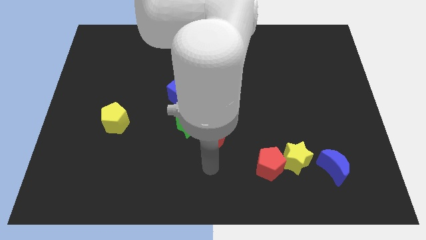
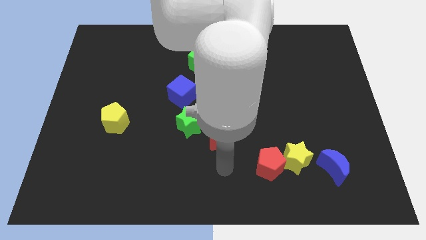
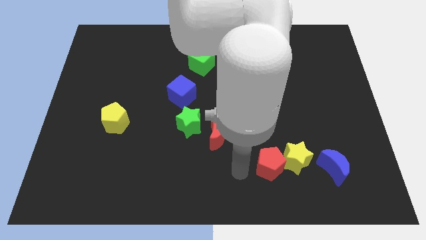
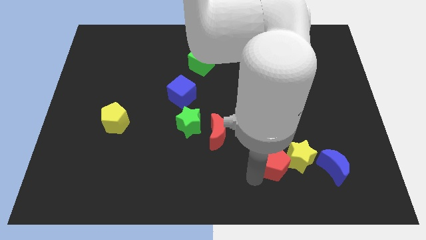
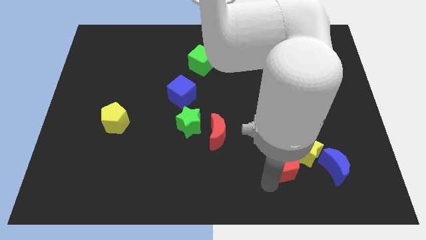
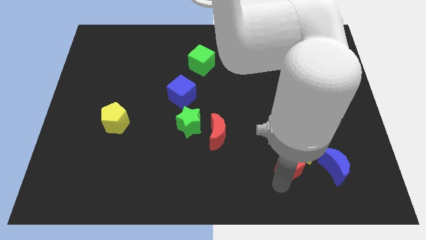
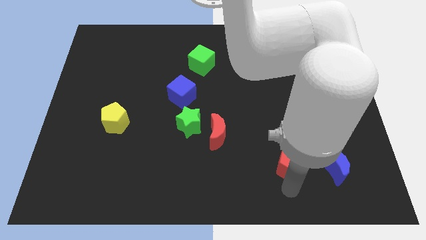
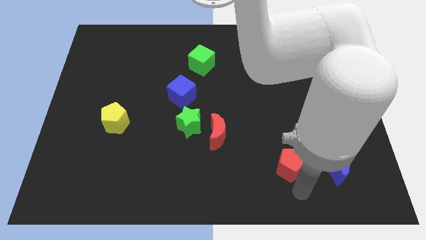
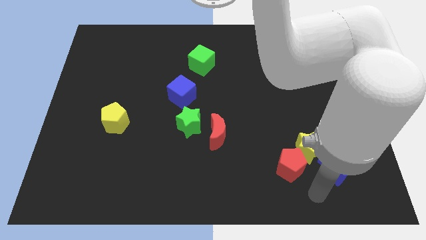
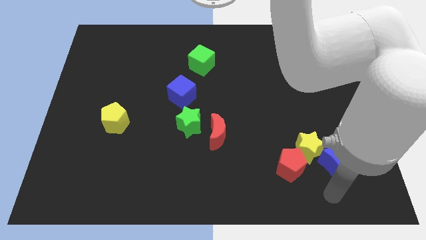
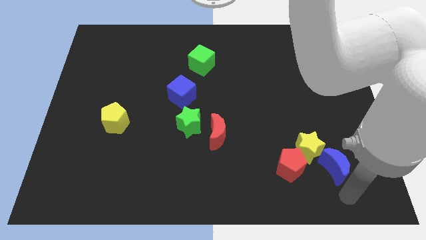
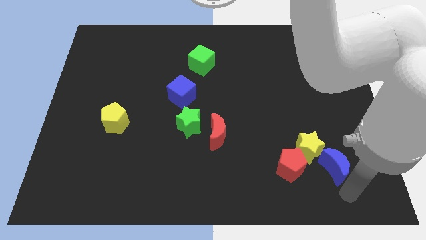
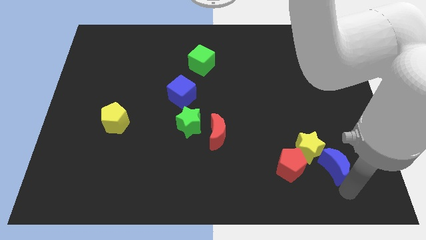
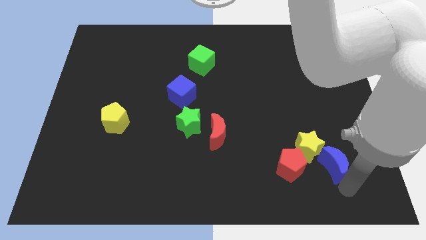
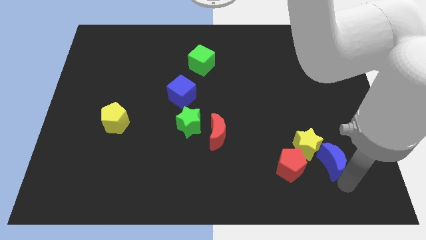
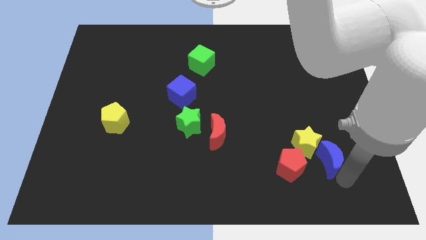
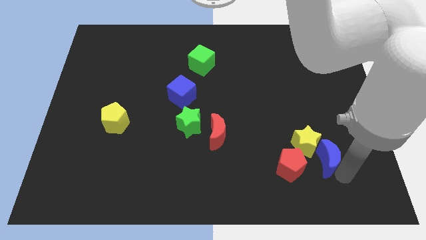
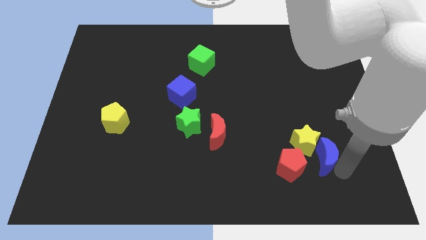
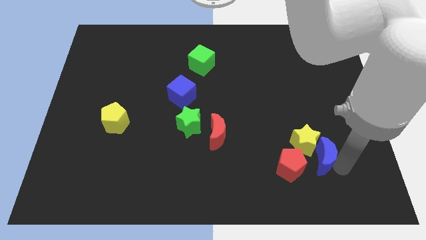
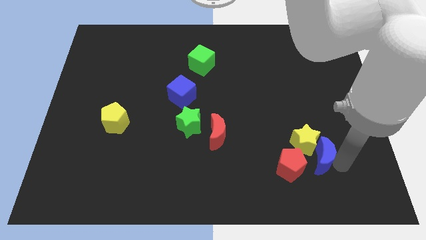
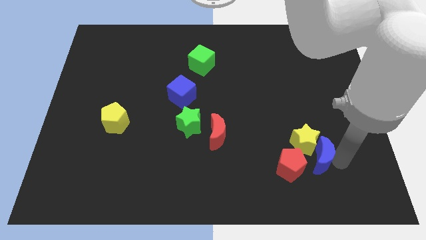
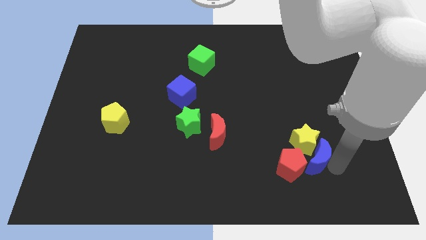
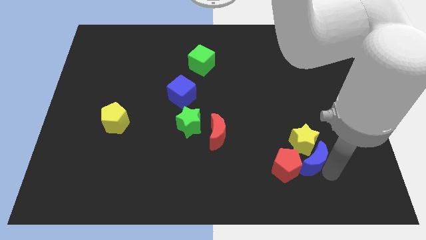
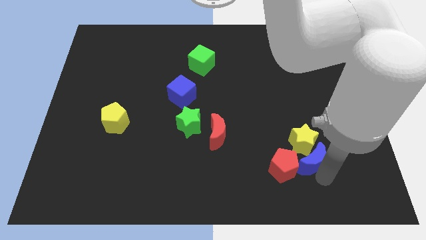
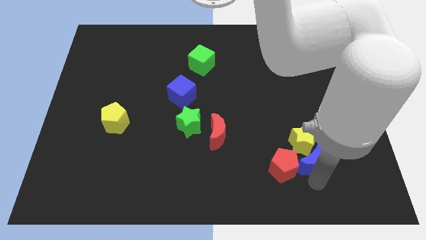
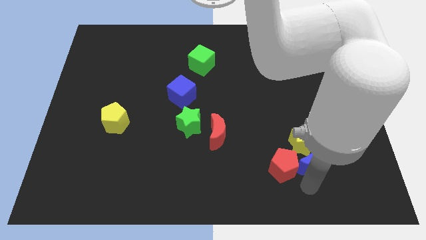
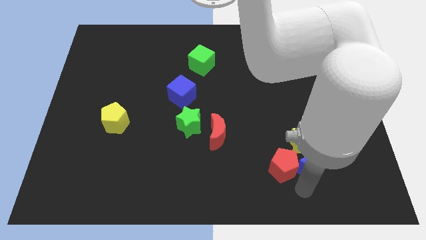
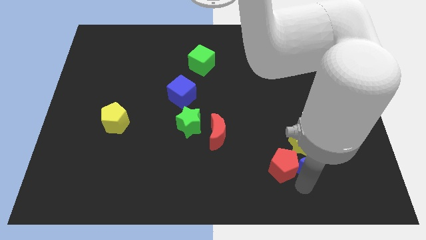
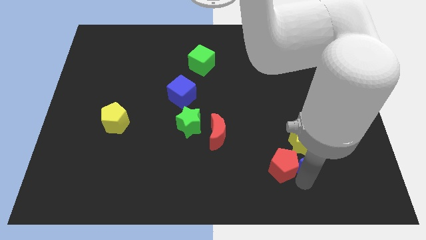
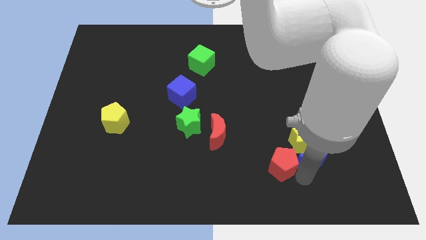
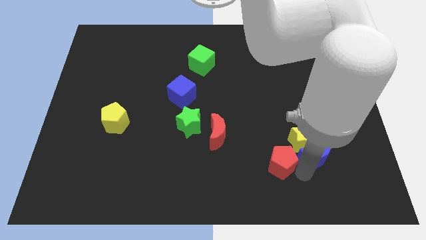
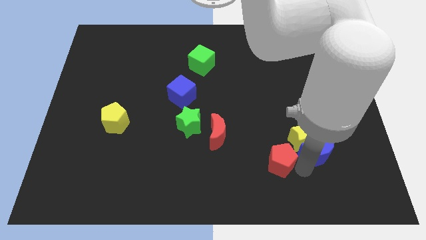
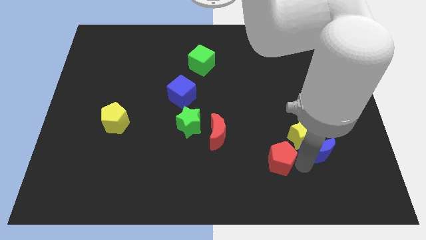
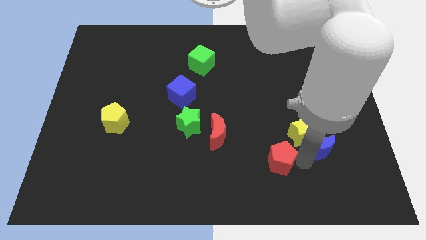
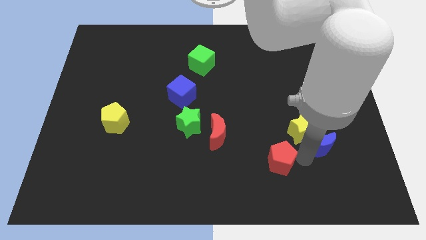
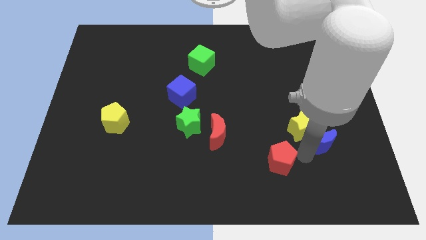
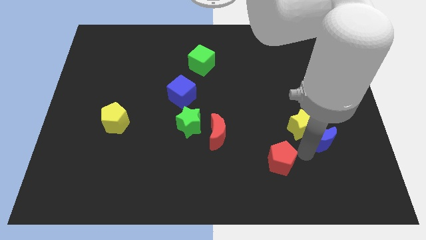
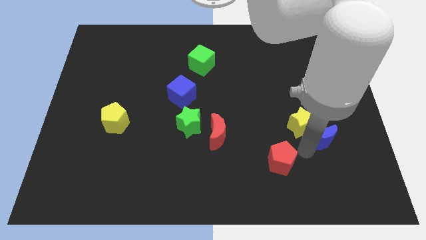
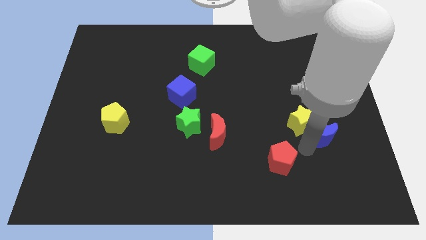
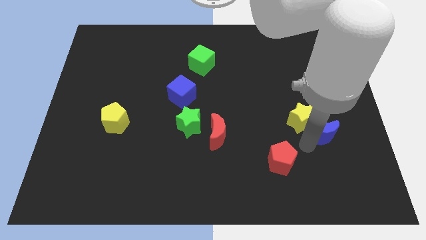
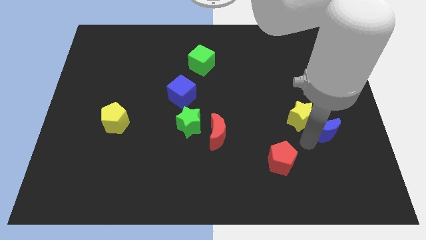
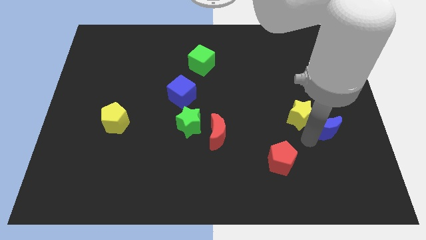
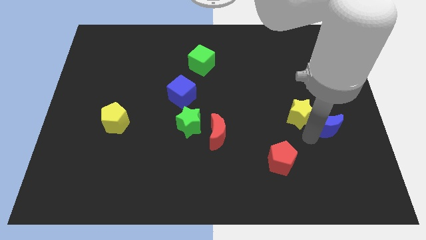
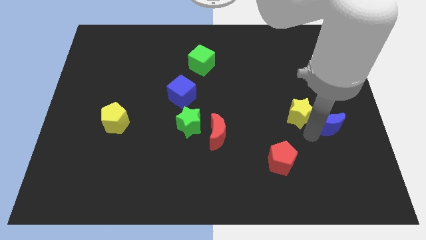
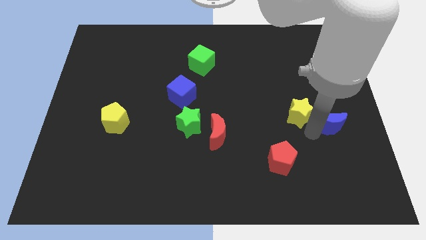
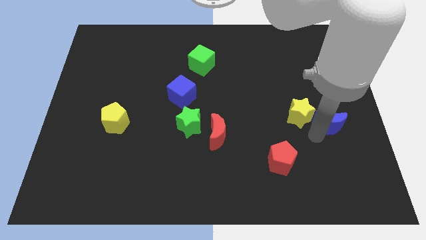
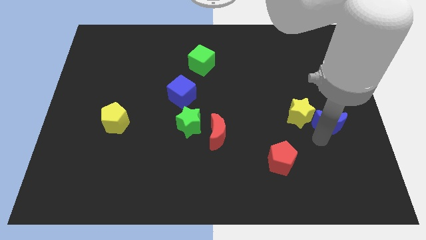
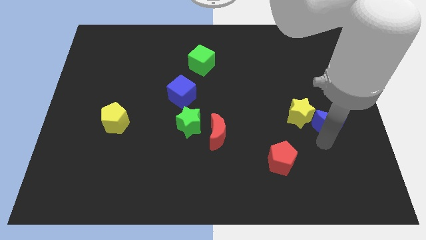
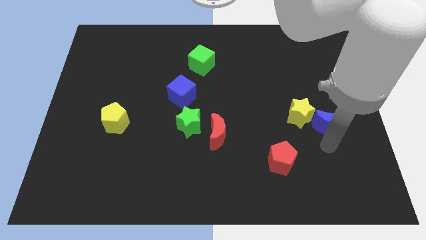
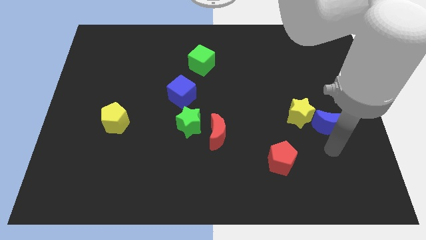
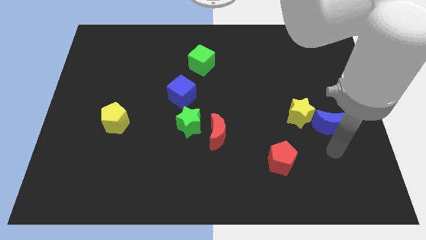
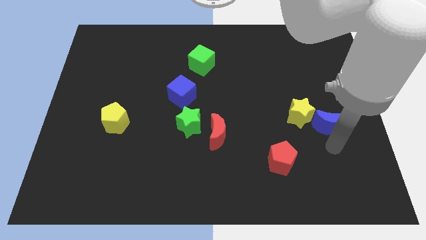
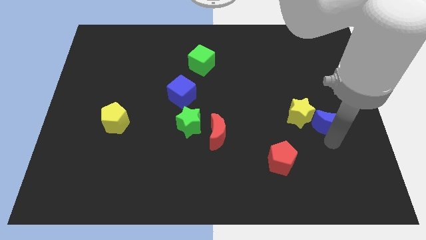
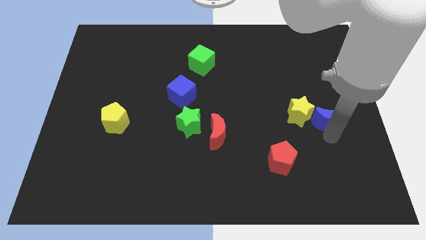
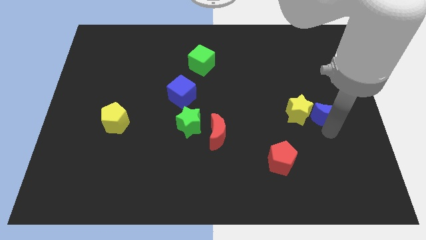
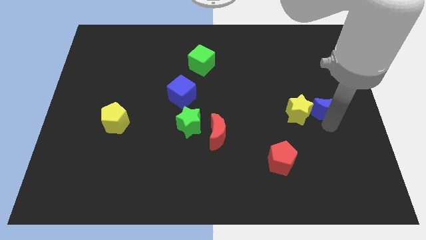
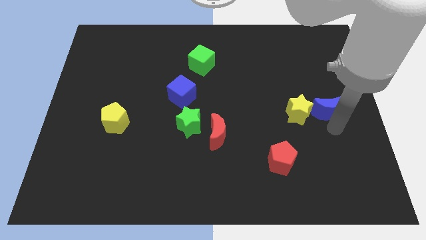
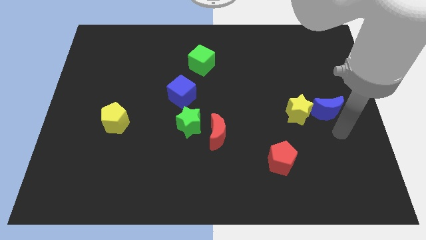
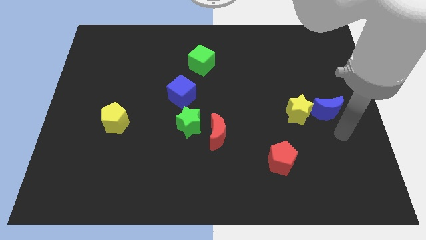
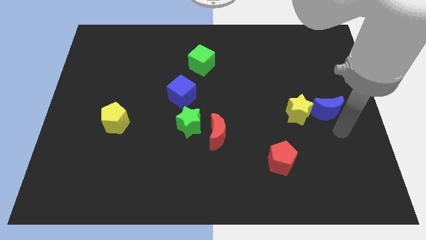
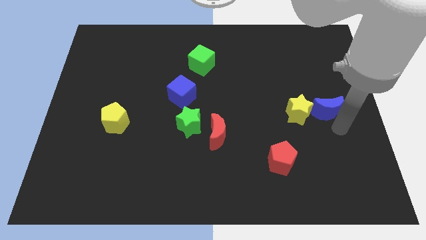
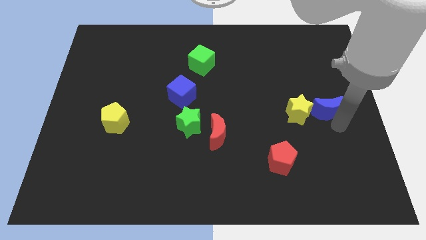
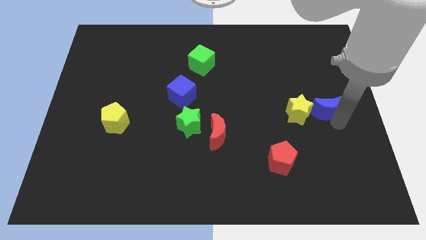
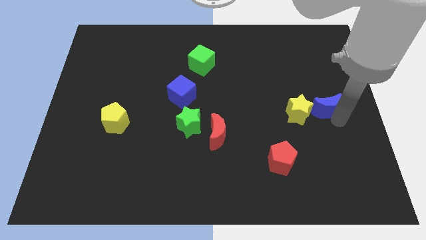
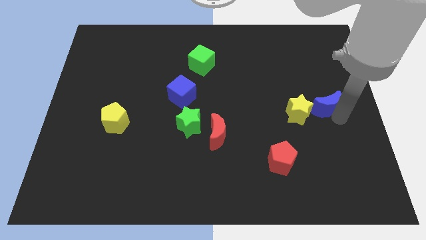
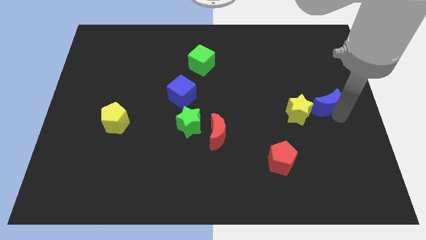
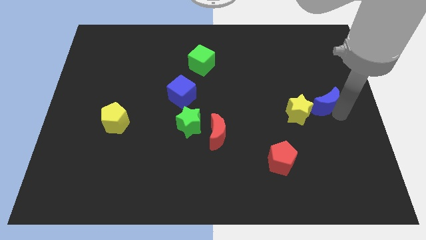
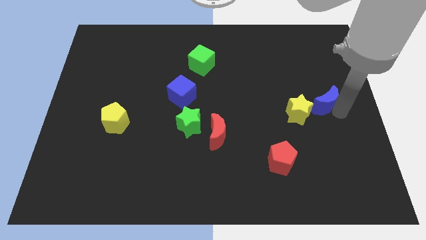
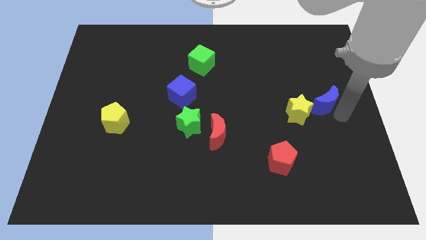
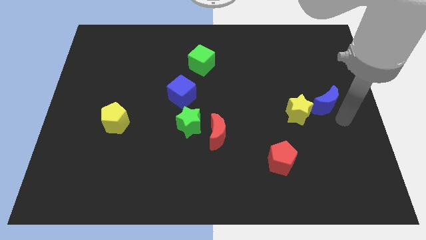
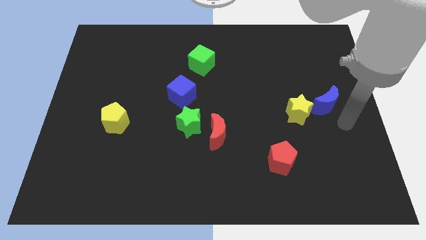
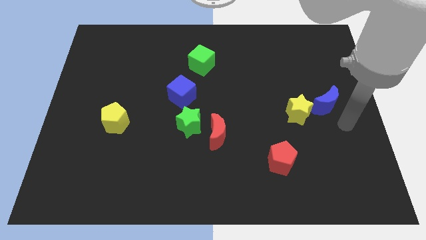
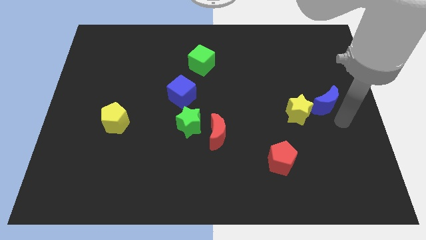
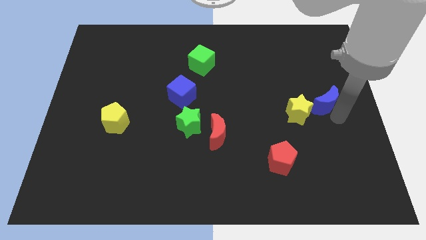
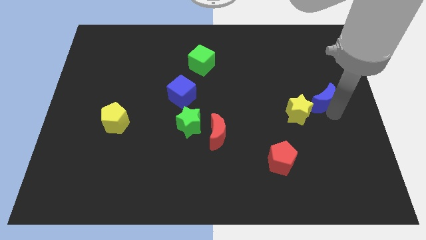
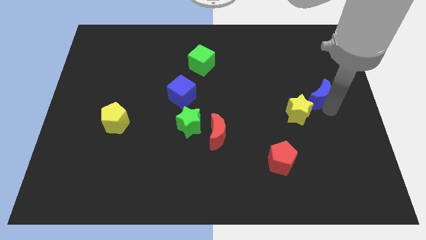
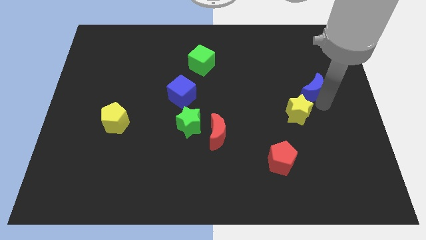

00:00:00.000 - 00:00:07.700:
push the blue moon up
